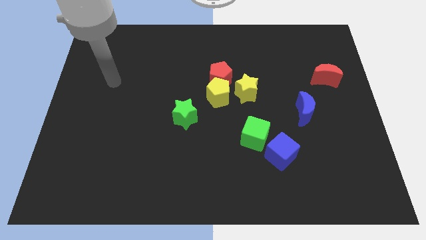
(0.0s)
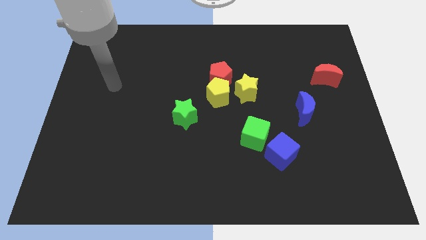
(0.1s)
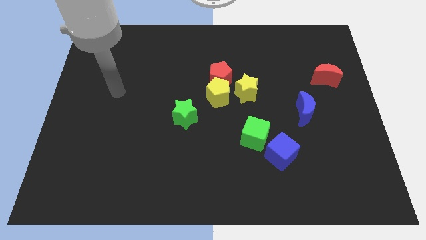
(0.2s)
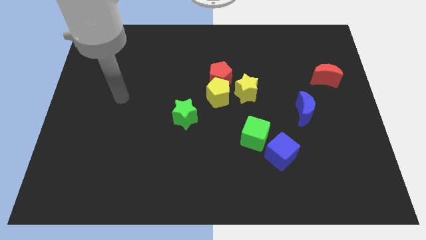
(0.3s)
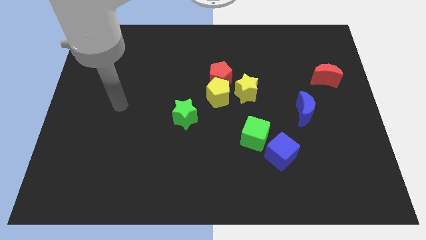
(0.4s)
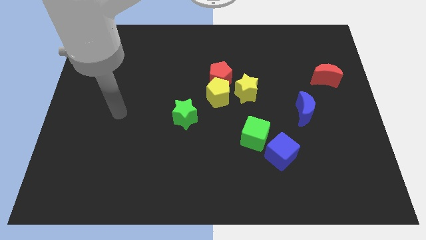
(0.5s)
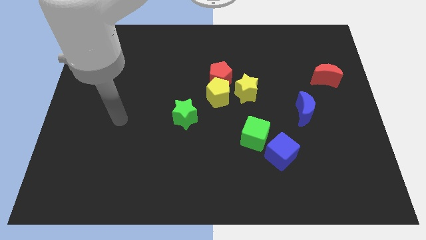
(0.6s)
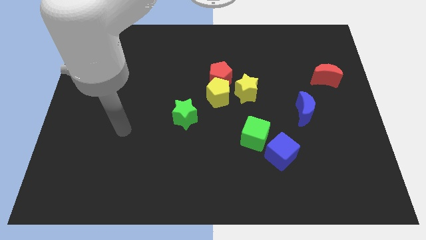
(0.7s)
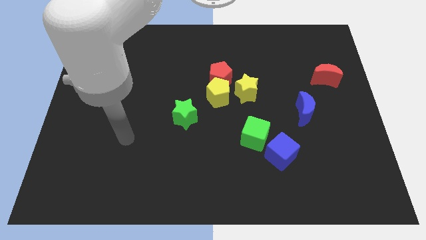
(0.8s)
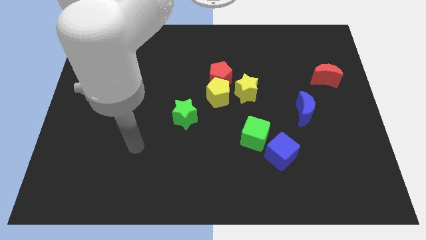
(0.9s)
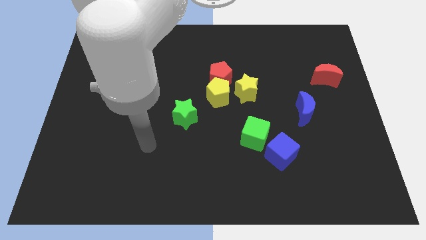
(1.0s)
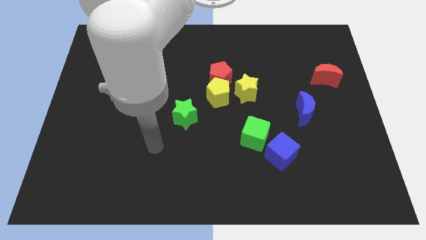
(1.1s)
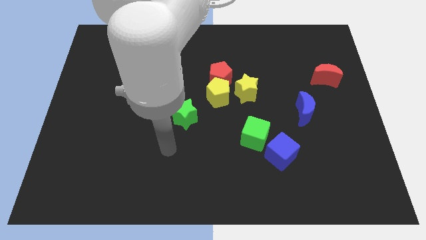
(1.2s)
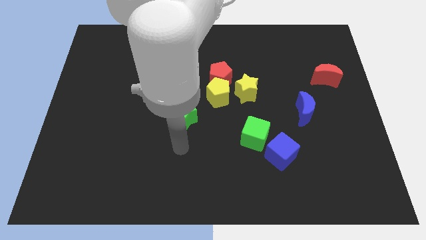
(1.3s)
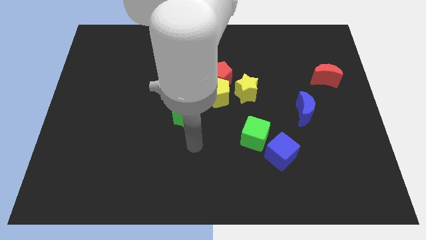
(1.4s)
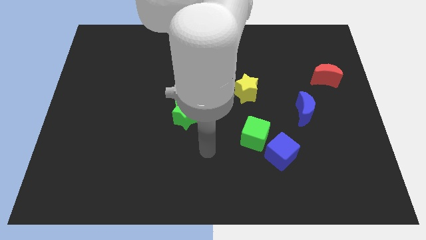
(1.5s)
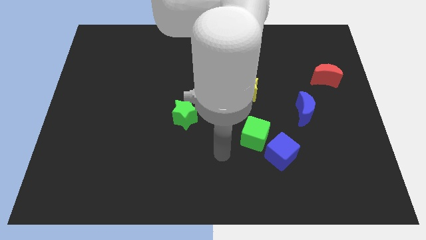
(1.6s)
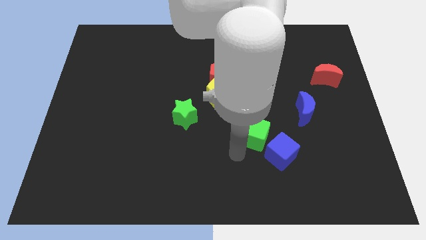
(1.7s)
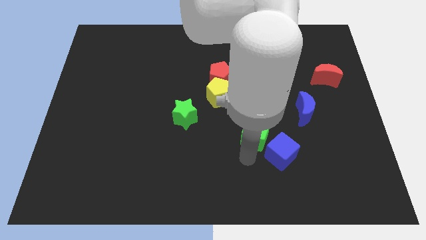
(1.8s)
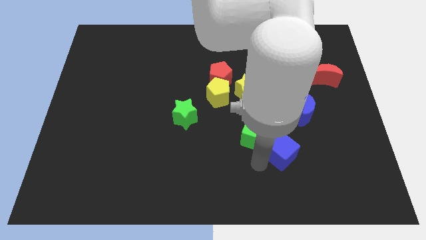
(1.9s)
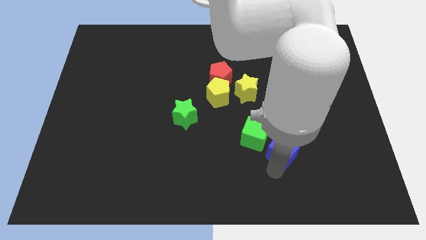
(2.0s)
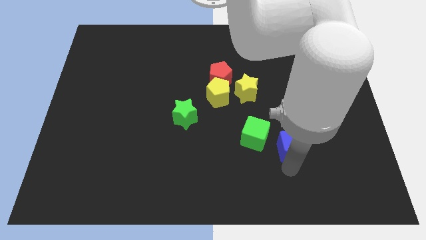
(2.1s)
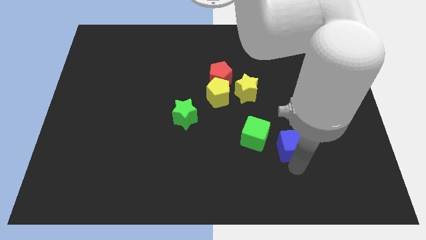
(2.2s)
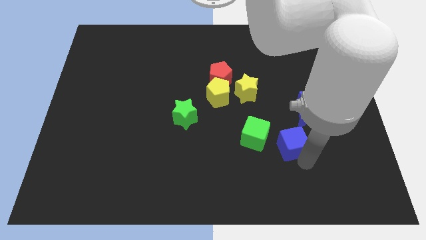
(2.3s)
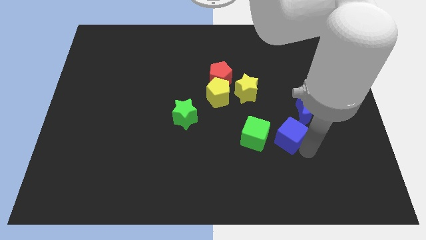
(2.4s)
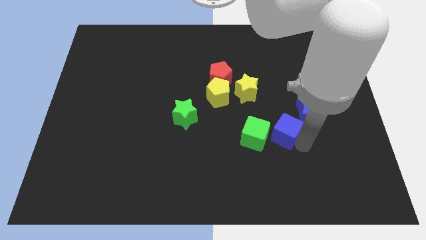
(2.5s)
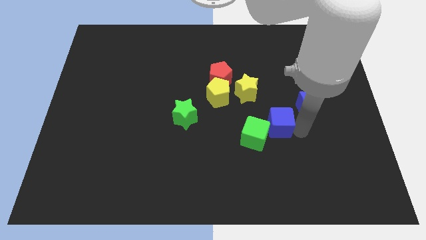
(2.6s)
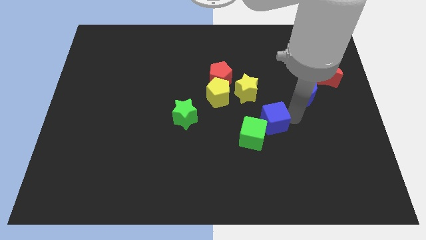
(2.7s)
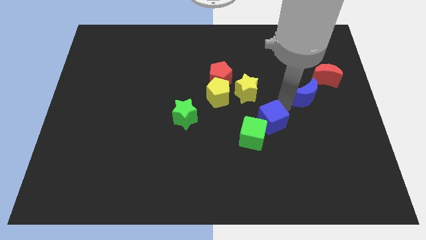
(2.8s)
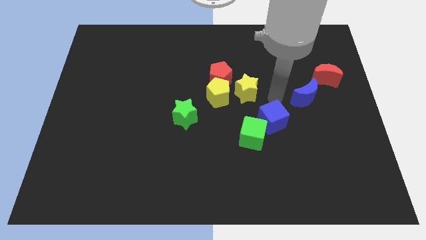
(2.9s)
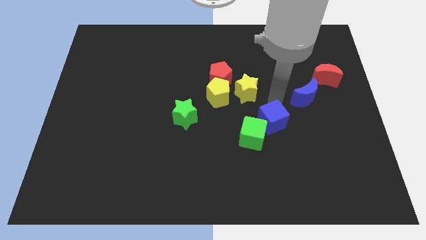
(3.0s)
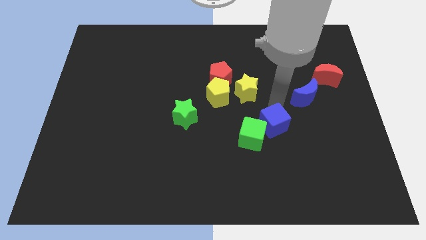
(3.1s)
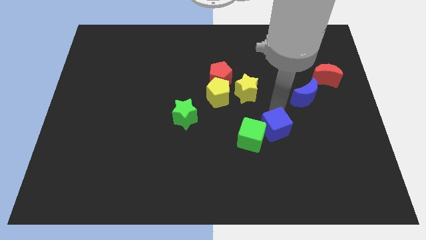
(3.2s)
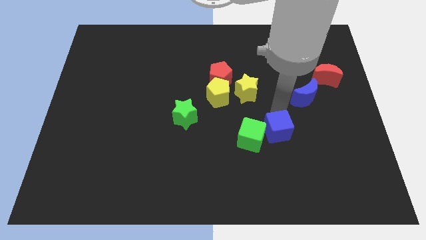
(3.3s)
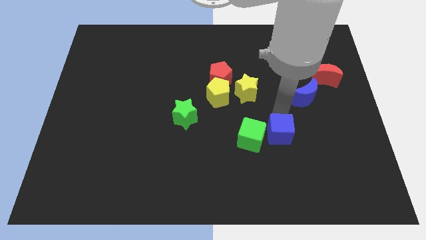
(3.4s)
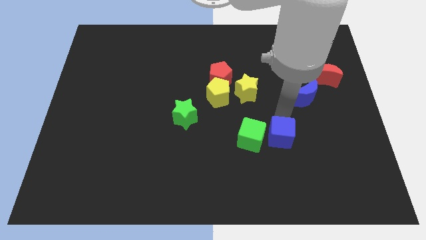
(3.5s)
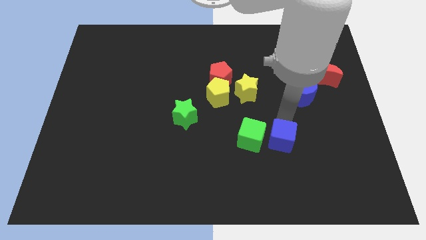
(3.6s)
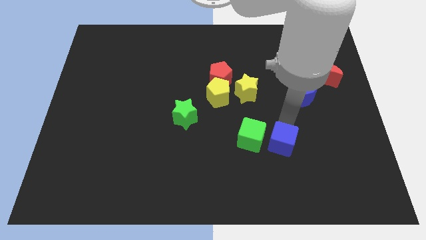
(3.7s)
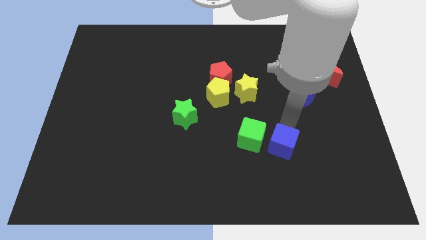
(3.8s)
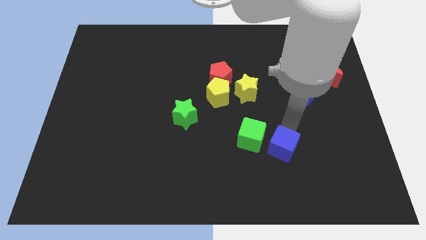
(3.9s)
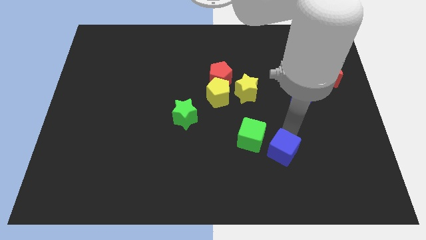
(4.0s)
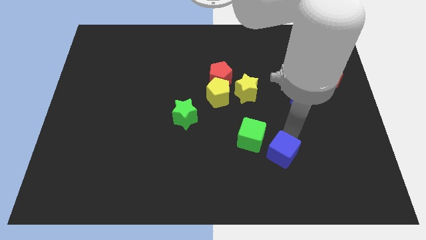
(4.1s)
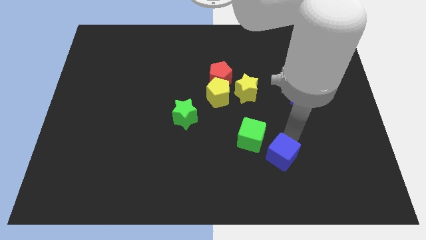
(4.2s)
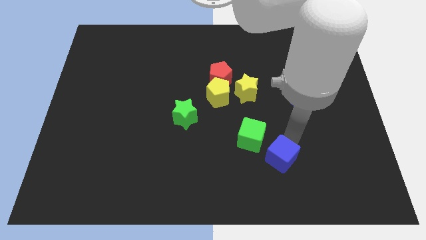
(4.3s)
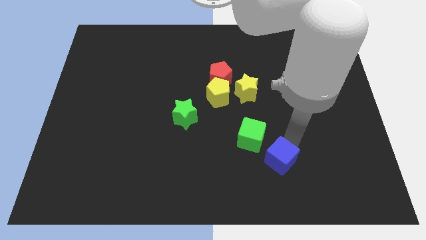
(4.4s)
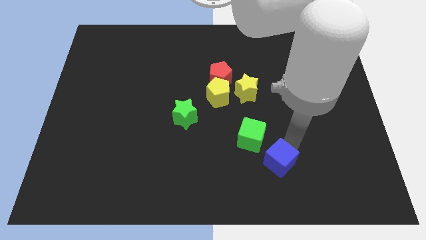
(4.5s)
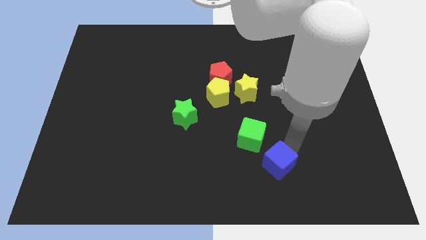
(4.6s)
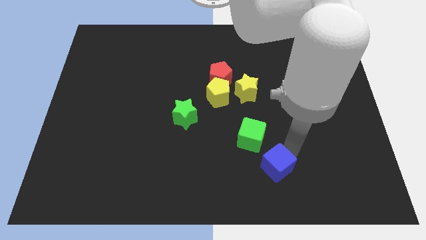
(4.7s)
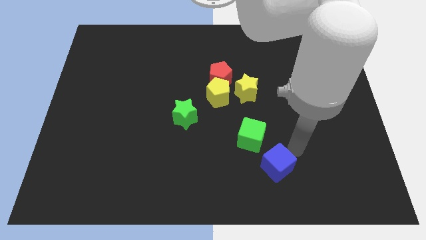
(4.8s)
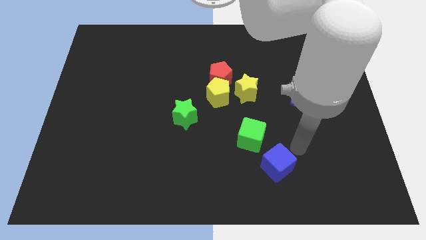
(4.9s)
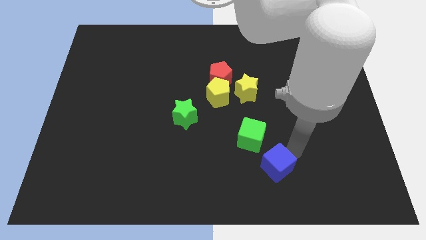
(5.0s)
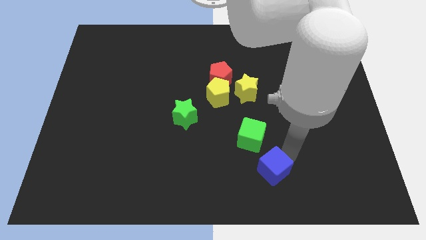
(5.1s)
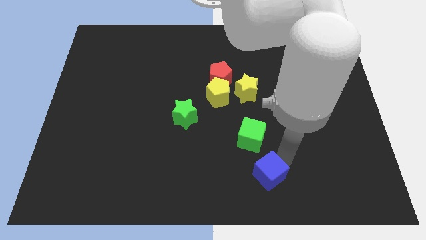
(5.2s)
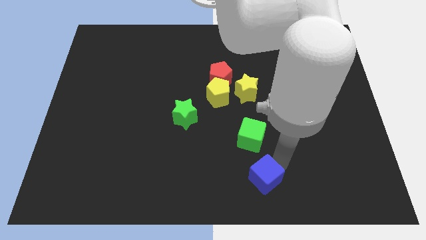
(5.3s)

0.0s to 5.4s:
put the blue cube to the bottom
